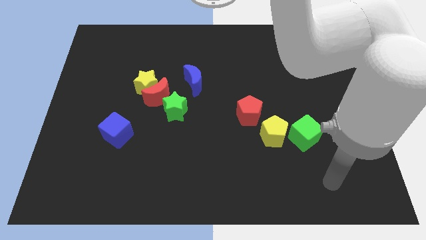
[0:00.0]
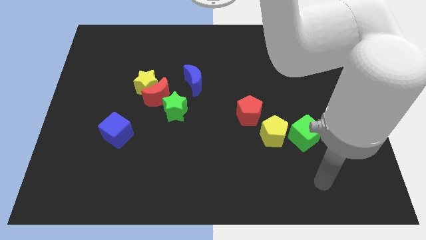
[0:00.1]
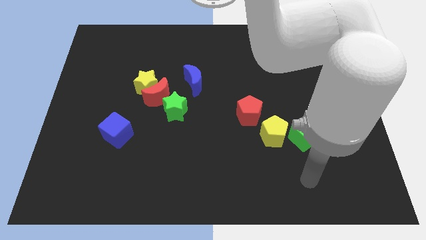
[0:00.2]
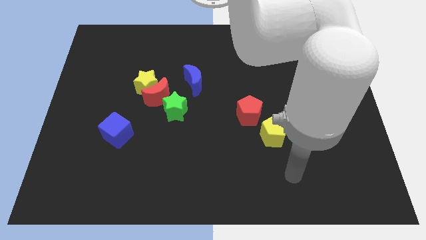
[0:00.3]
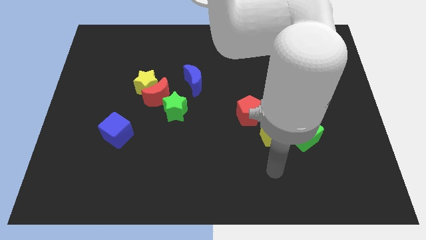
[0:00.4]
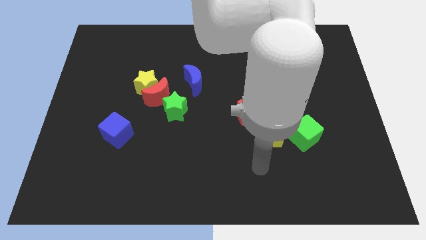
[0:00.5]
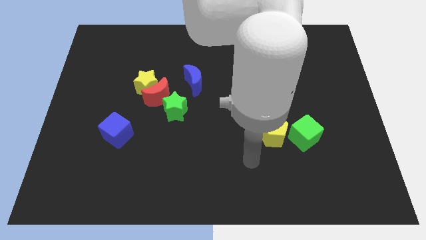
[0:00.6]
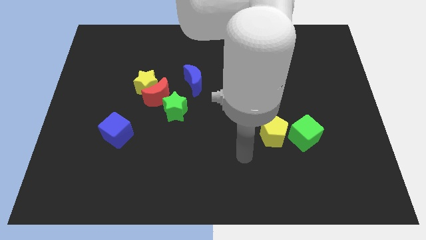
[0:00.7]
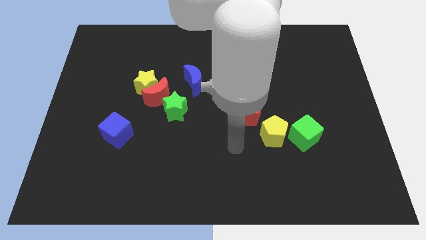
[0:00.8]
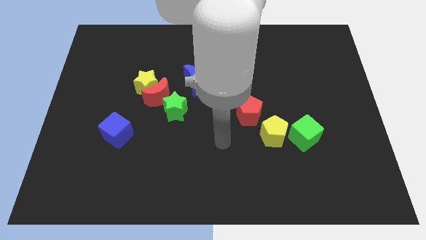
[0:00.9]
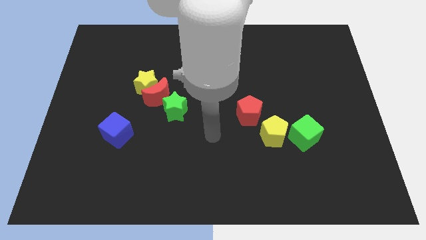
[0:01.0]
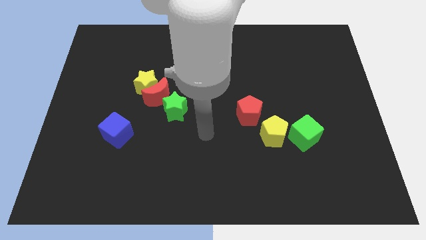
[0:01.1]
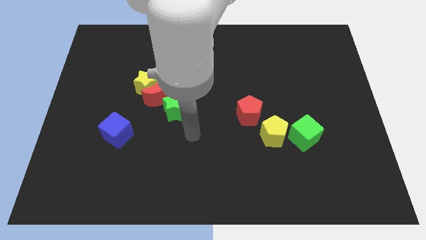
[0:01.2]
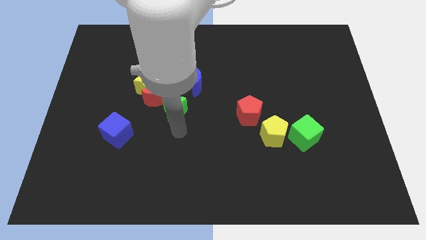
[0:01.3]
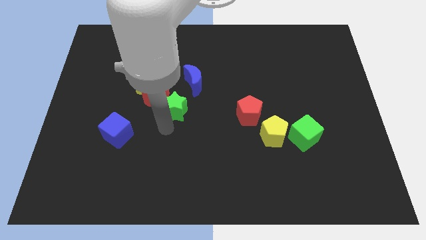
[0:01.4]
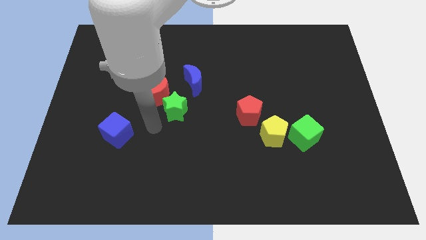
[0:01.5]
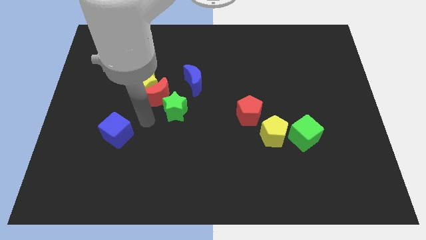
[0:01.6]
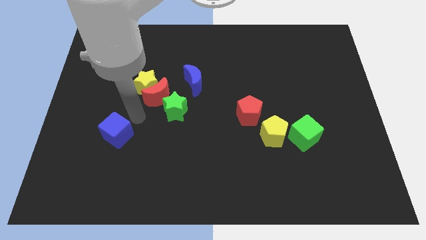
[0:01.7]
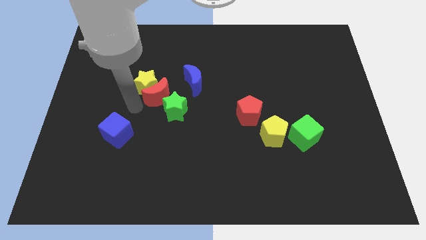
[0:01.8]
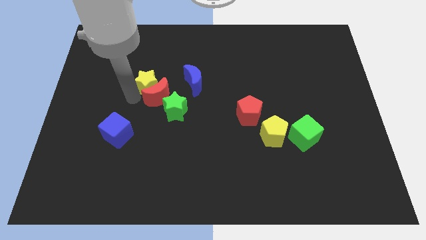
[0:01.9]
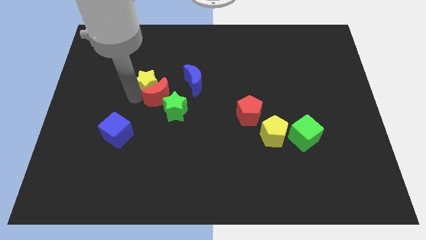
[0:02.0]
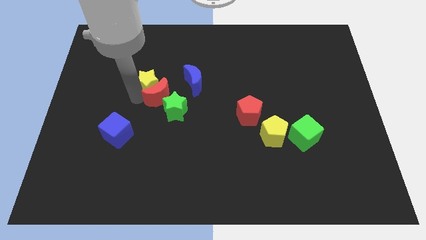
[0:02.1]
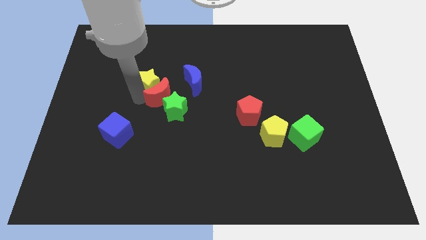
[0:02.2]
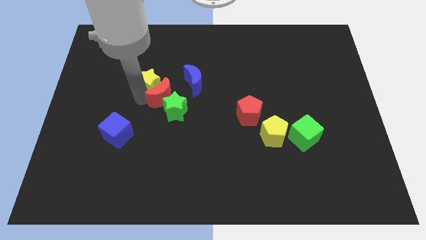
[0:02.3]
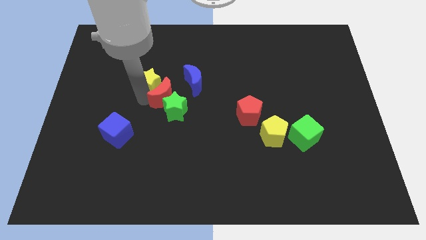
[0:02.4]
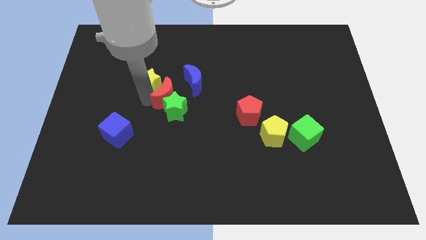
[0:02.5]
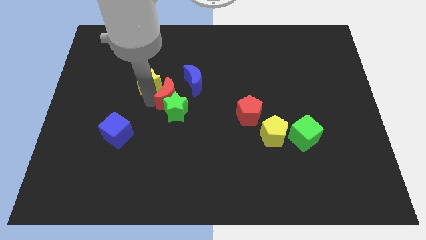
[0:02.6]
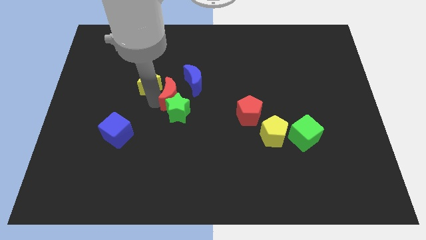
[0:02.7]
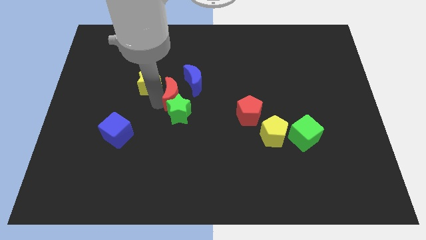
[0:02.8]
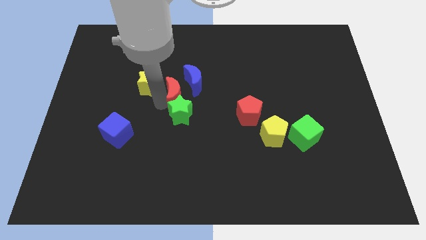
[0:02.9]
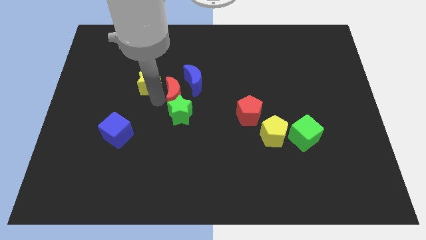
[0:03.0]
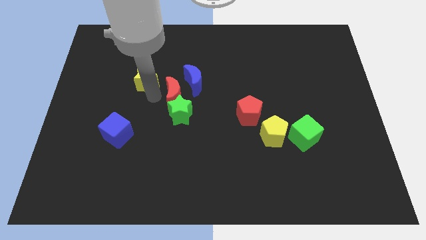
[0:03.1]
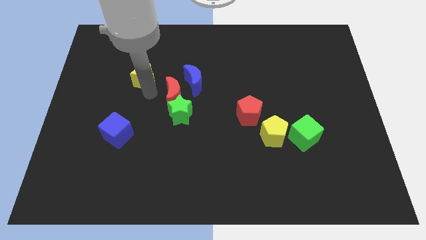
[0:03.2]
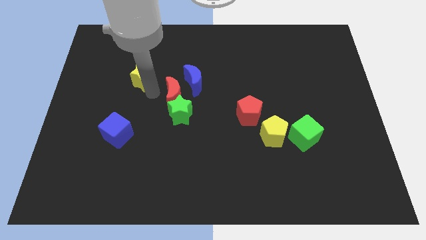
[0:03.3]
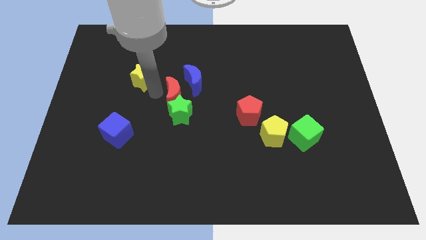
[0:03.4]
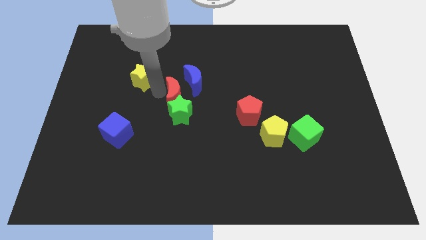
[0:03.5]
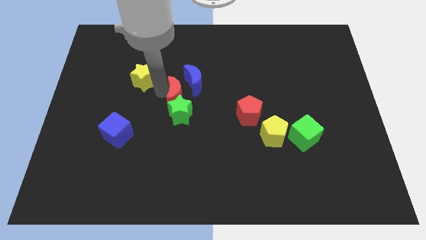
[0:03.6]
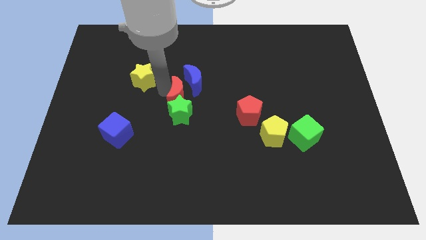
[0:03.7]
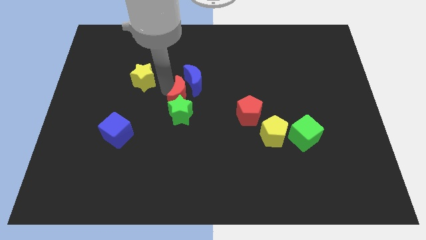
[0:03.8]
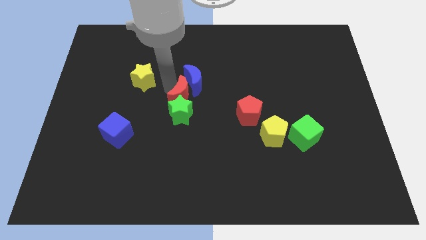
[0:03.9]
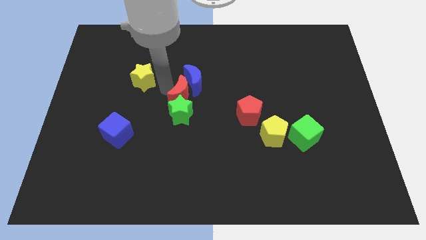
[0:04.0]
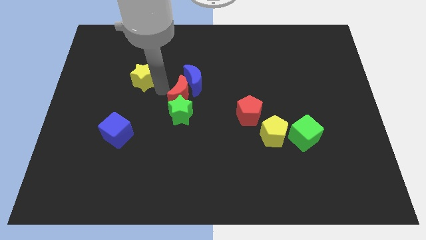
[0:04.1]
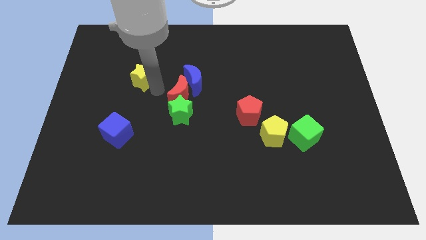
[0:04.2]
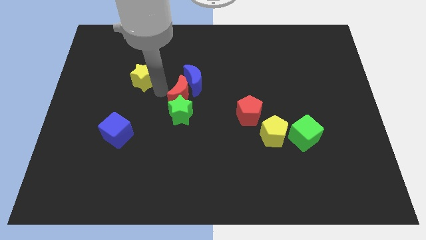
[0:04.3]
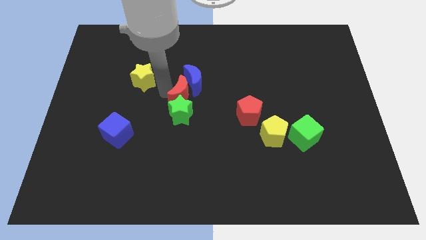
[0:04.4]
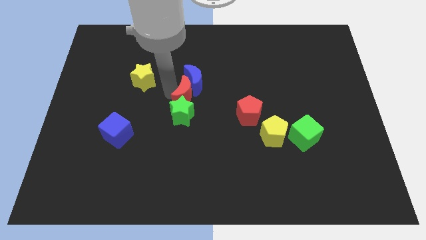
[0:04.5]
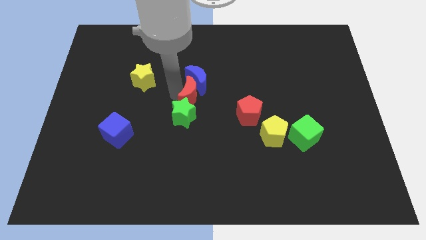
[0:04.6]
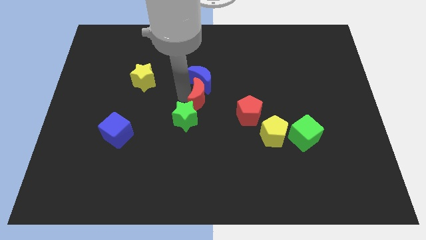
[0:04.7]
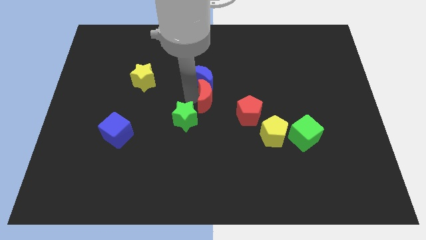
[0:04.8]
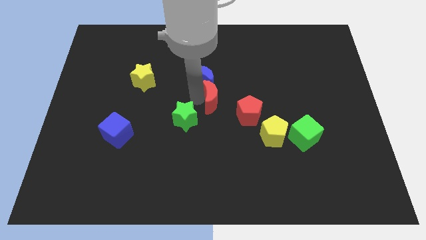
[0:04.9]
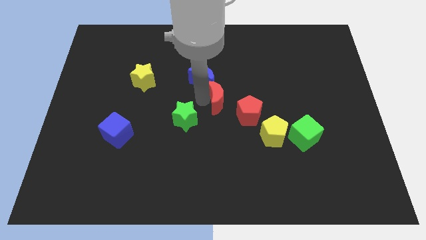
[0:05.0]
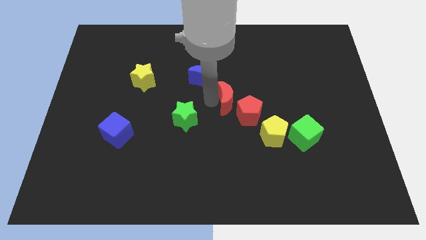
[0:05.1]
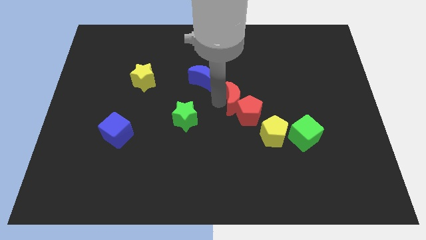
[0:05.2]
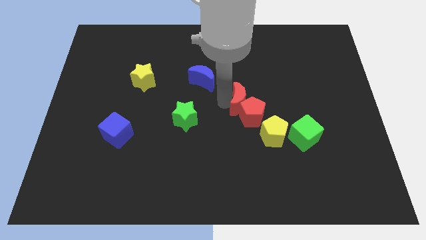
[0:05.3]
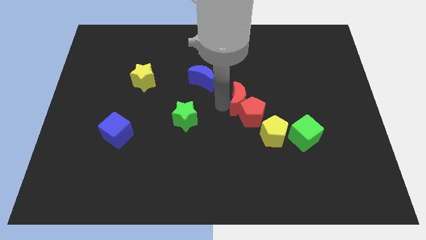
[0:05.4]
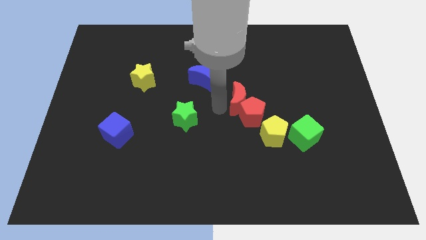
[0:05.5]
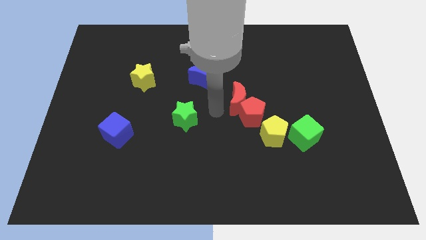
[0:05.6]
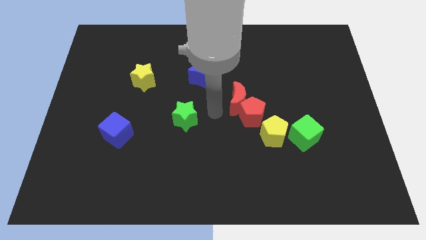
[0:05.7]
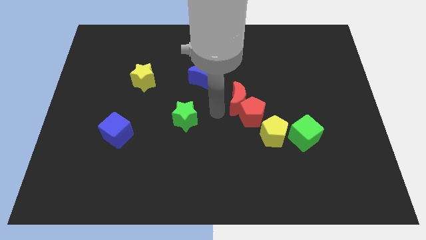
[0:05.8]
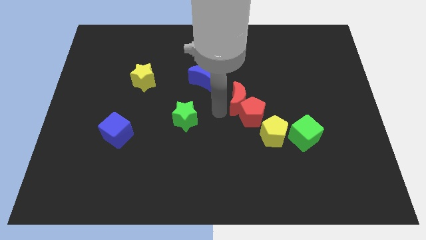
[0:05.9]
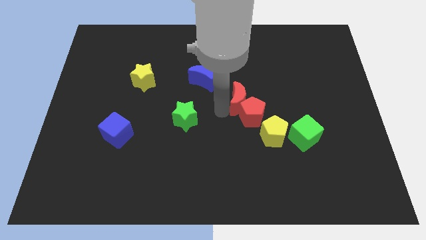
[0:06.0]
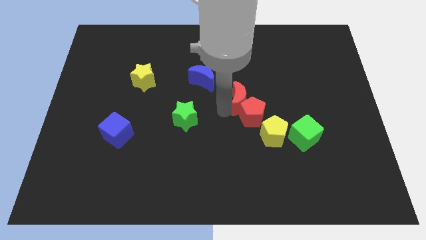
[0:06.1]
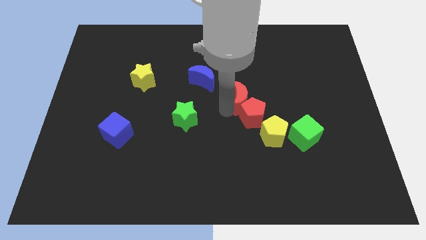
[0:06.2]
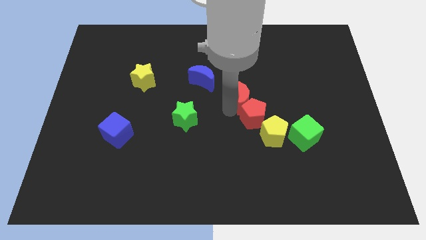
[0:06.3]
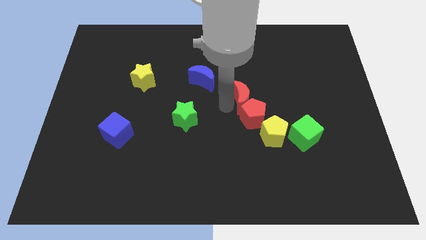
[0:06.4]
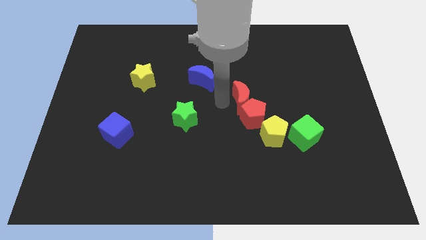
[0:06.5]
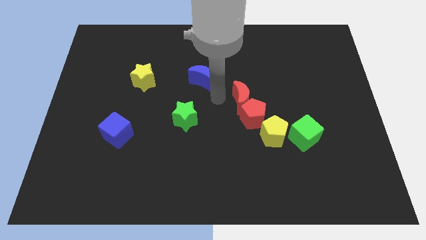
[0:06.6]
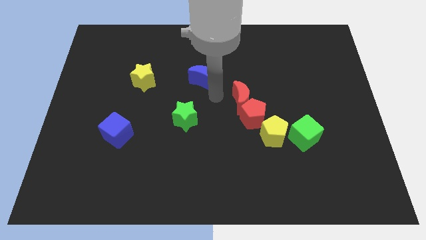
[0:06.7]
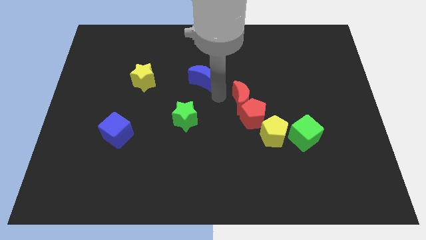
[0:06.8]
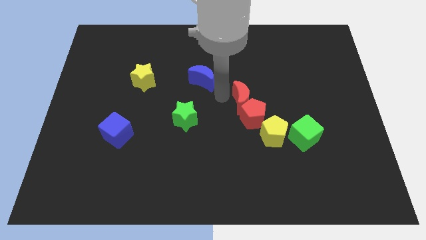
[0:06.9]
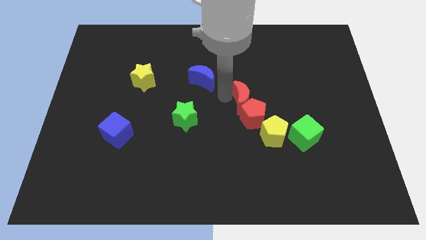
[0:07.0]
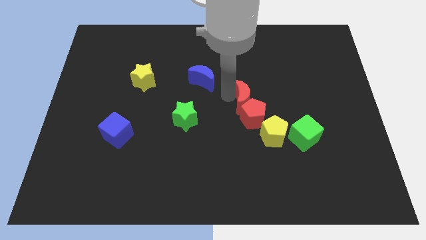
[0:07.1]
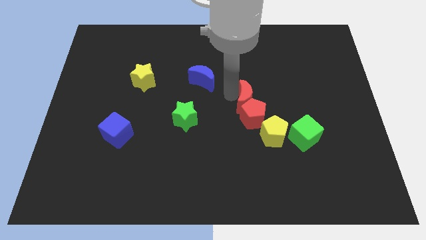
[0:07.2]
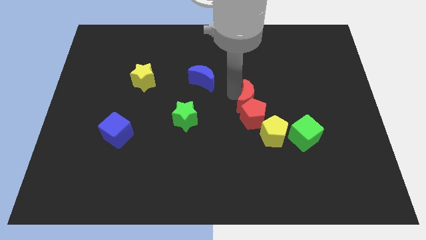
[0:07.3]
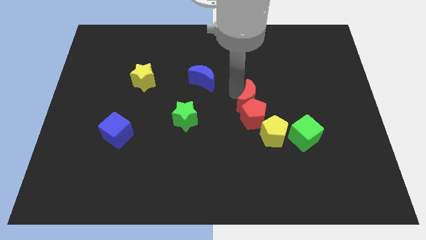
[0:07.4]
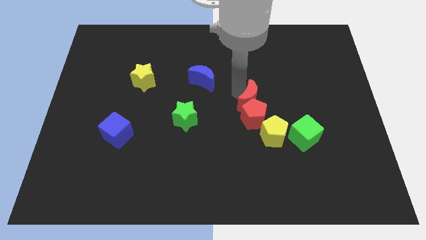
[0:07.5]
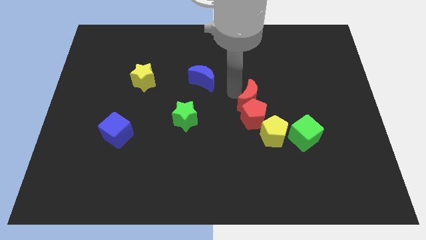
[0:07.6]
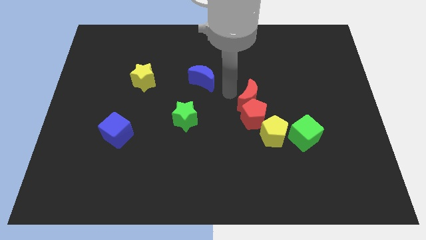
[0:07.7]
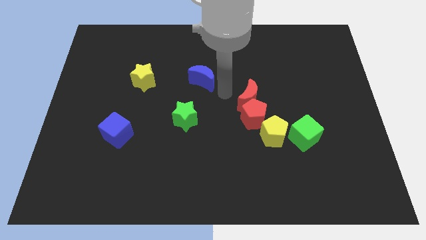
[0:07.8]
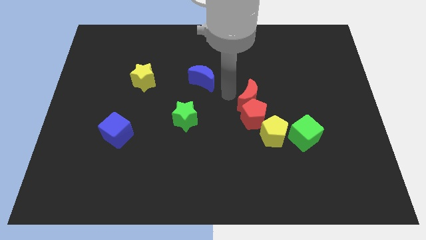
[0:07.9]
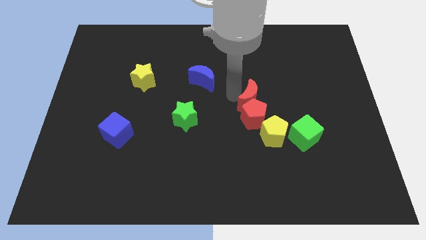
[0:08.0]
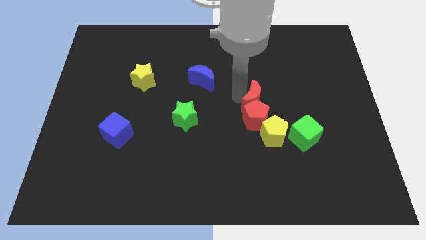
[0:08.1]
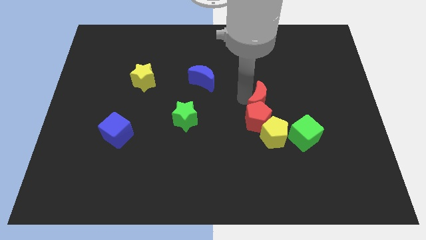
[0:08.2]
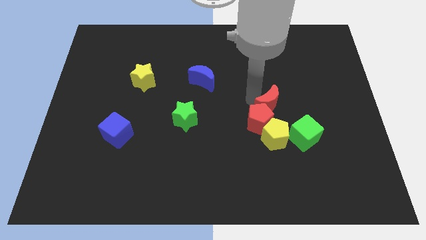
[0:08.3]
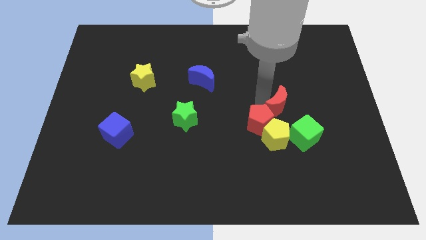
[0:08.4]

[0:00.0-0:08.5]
push the red moon right of the red pentagon
